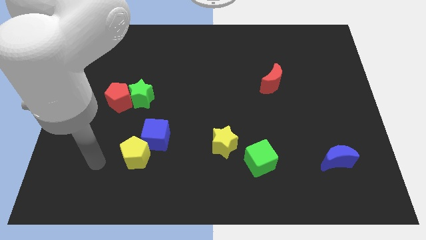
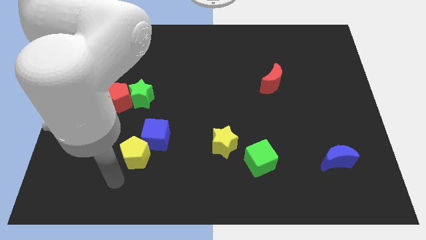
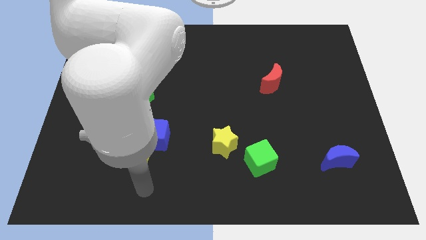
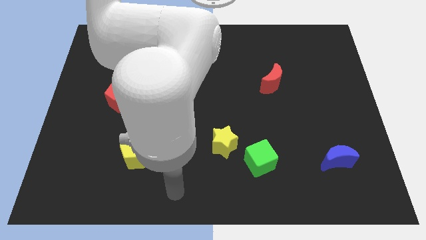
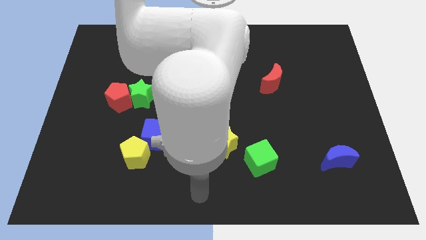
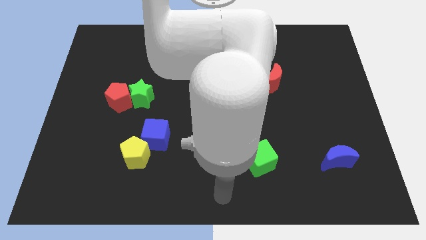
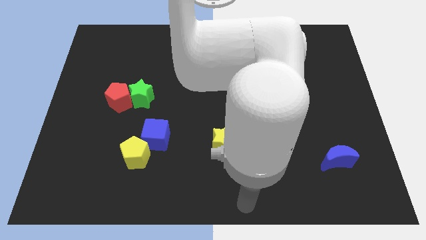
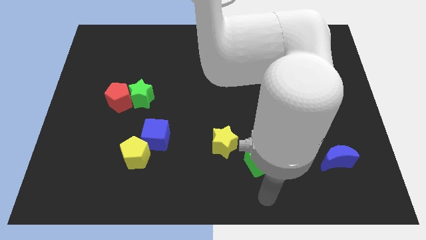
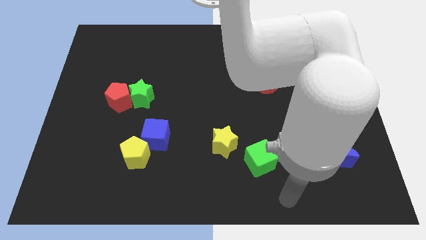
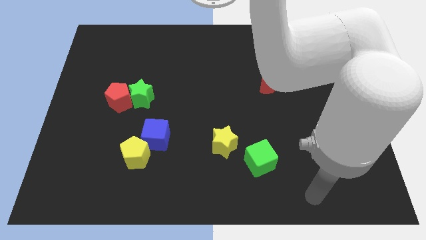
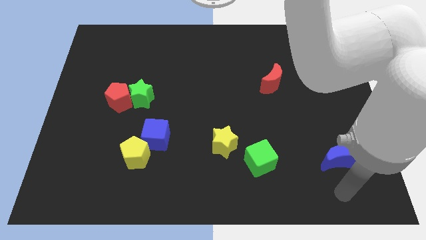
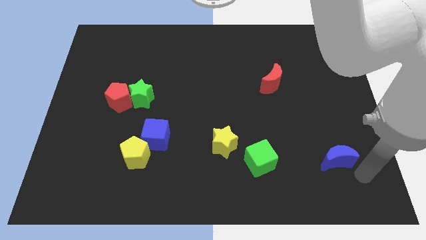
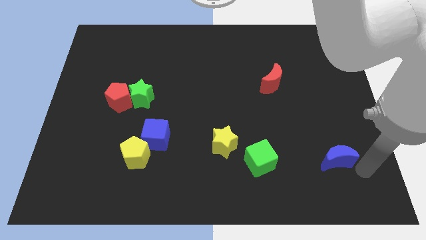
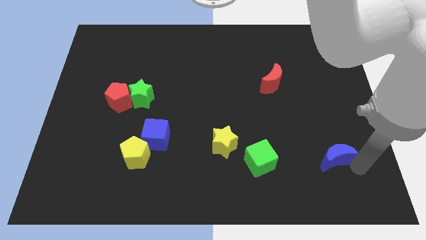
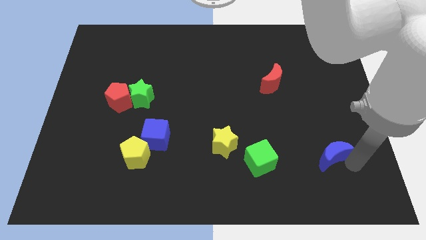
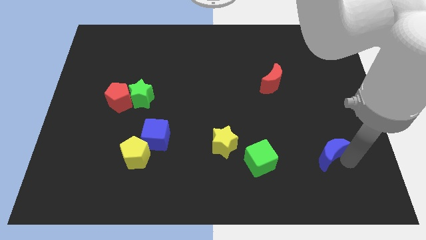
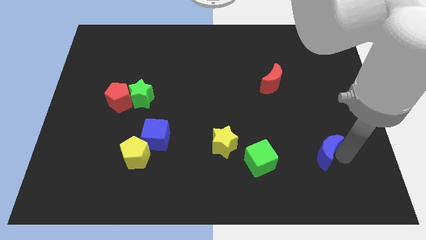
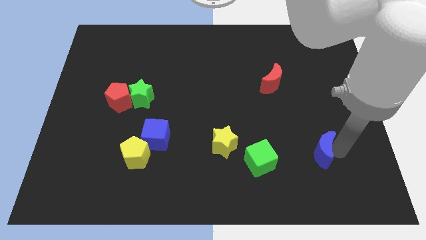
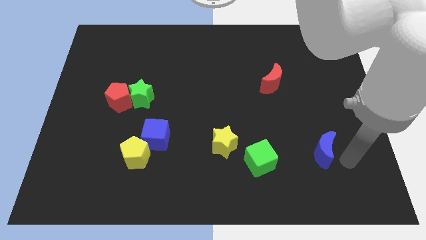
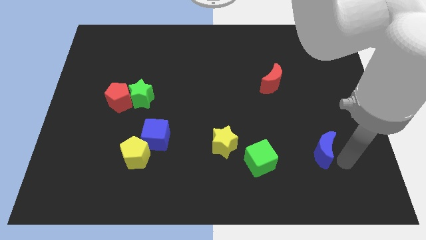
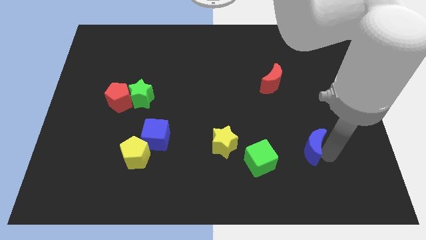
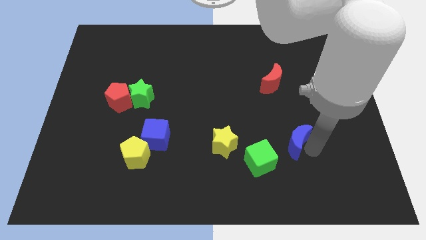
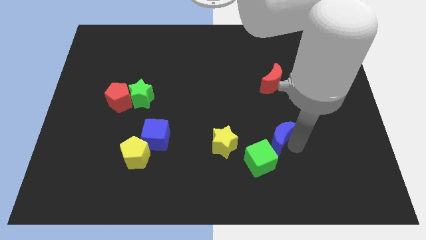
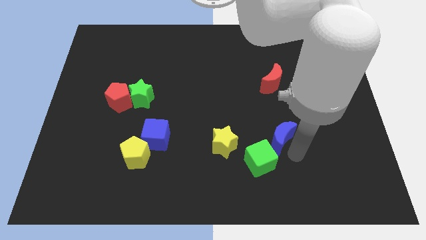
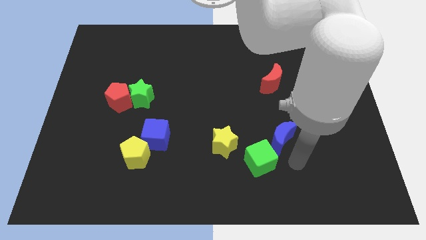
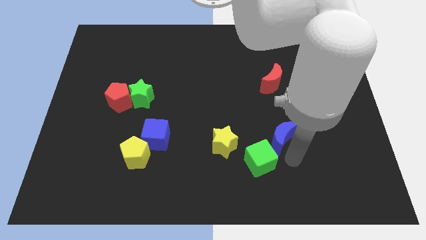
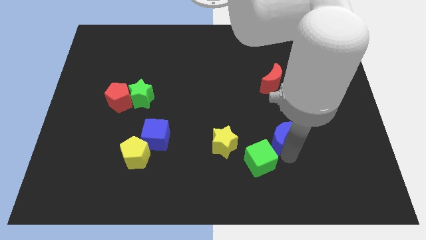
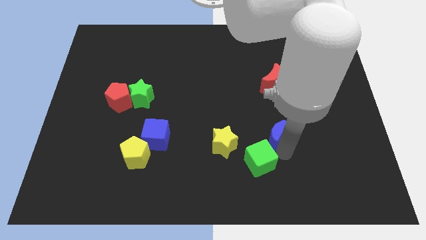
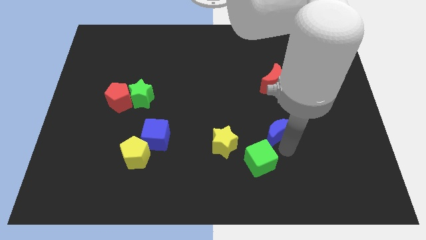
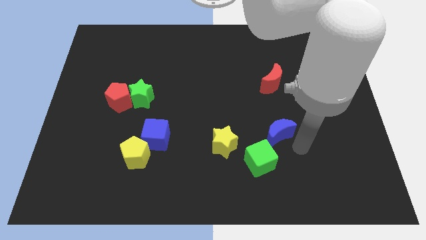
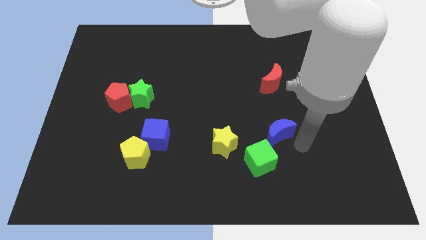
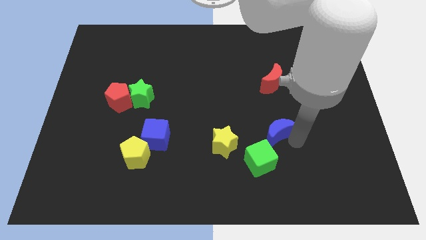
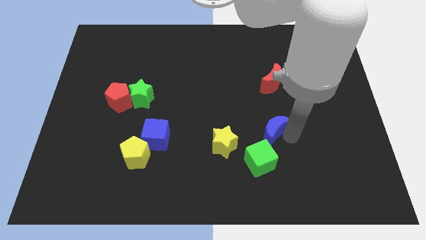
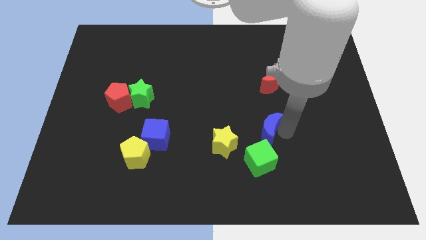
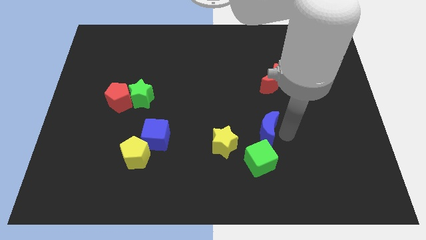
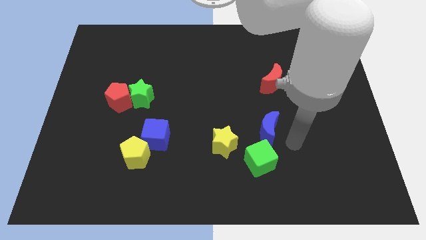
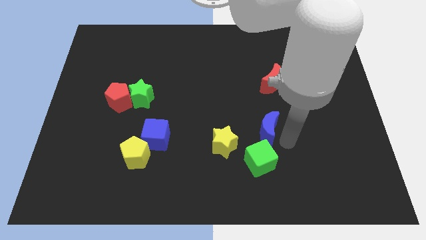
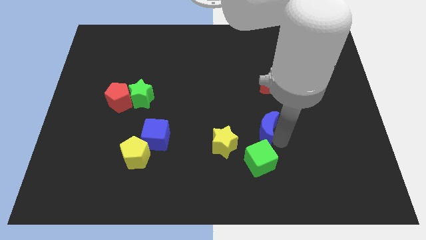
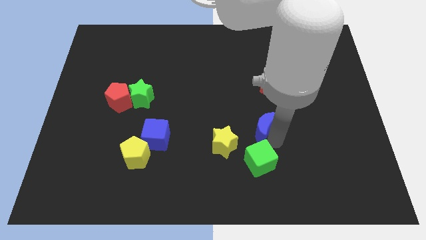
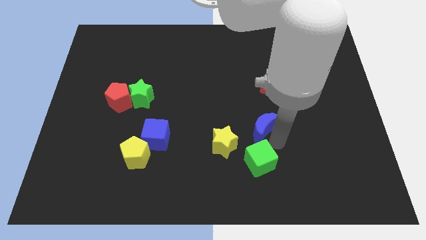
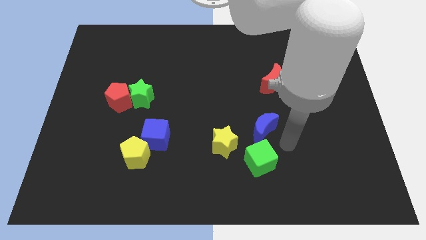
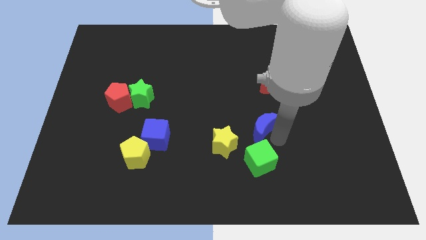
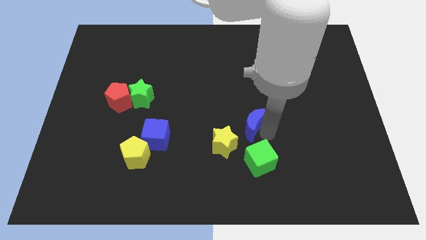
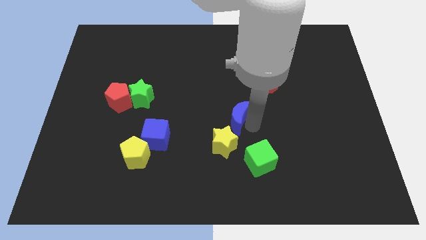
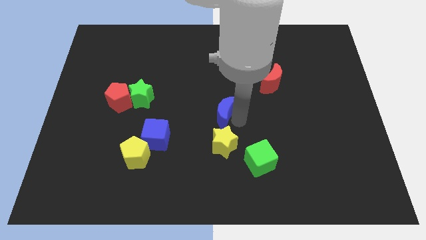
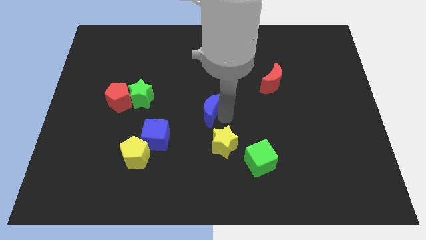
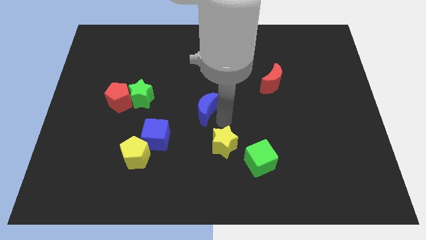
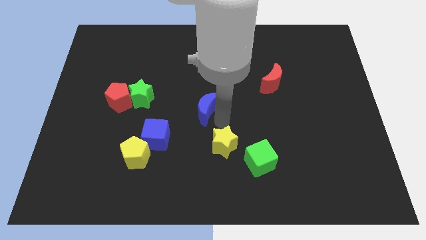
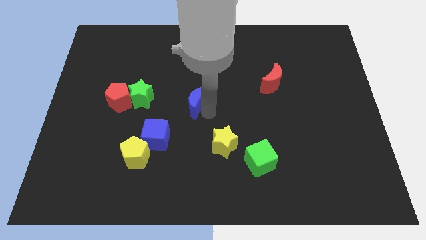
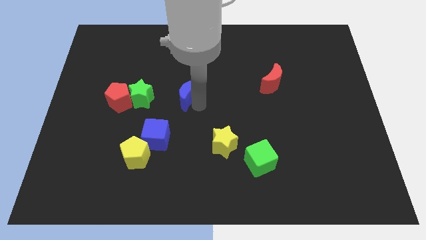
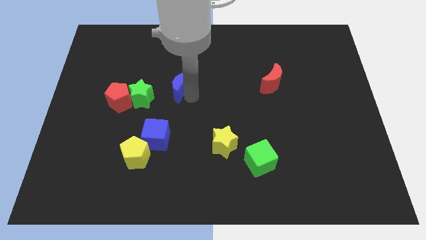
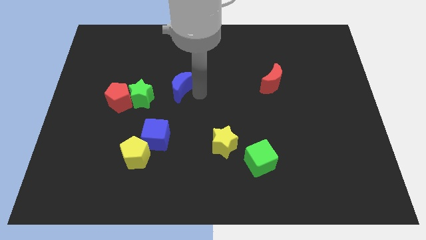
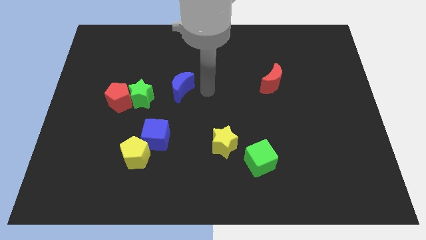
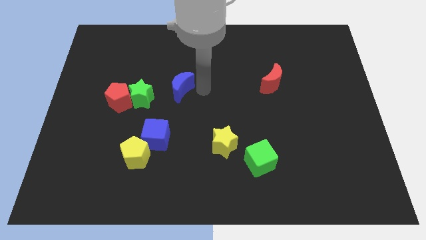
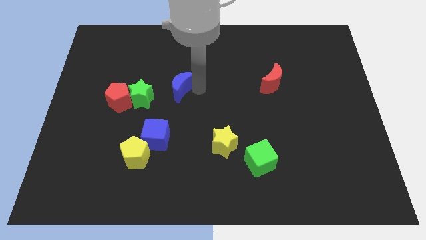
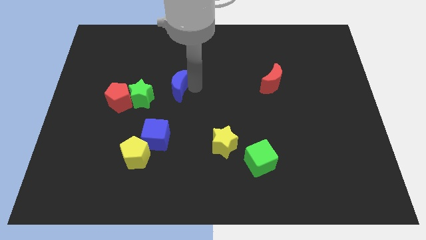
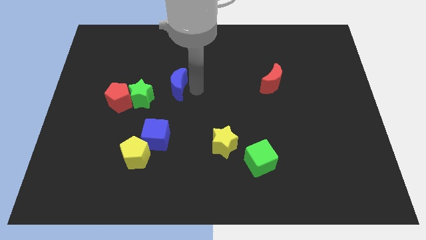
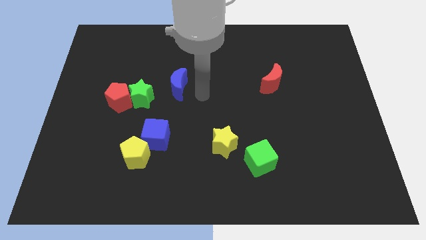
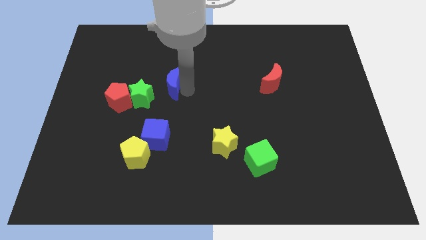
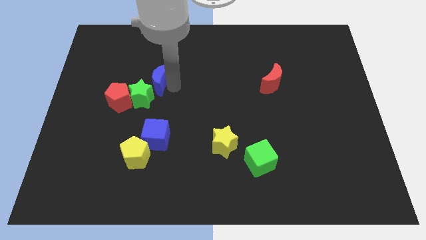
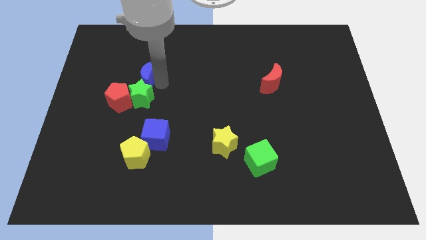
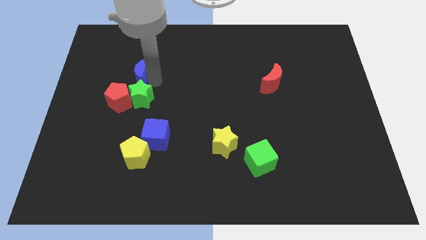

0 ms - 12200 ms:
slide the blue moon to the top side of the red pentagon

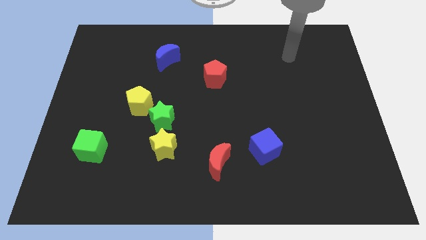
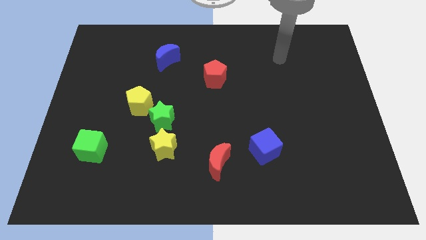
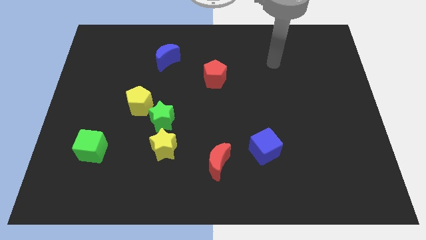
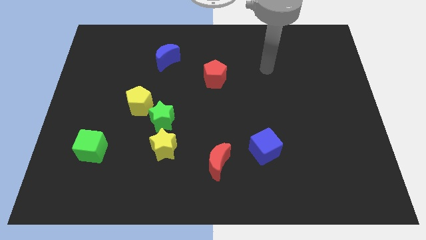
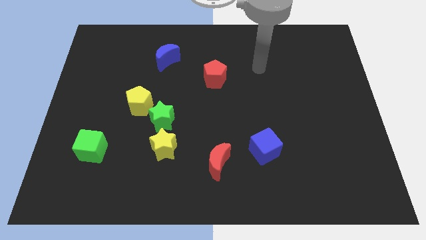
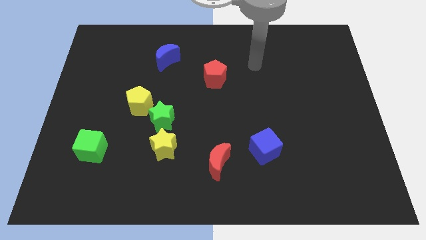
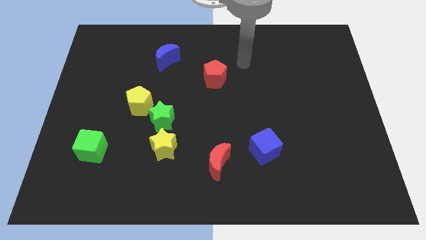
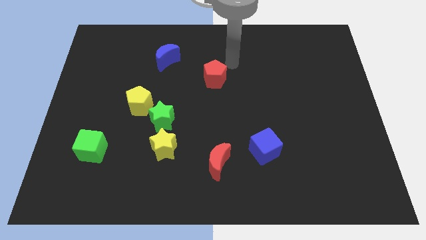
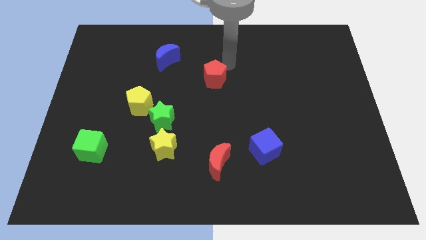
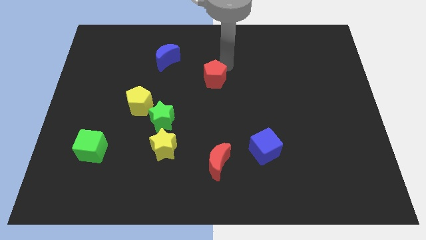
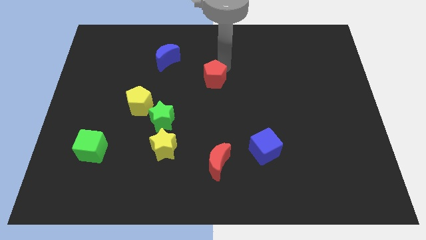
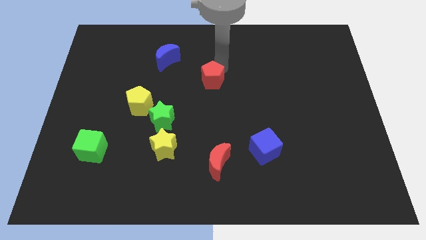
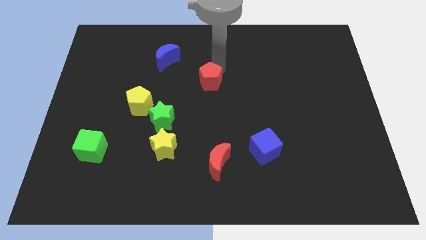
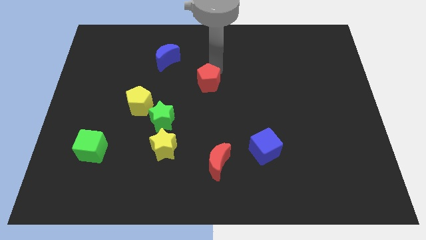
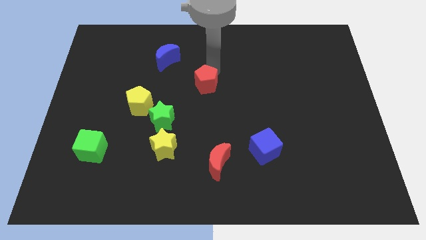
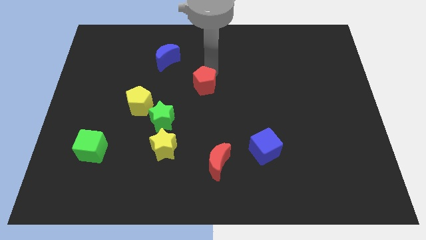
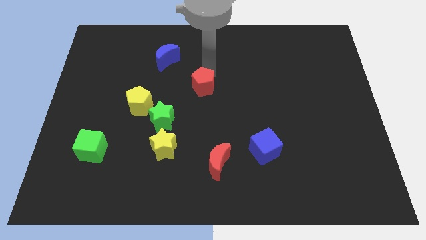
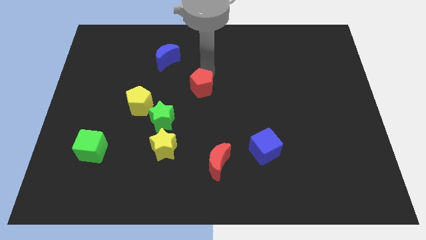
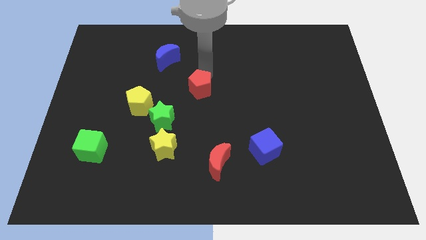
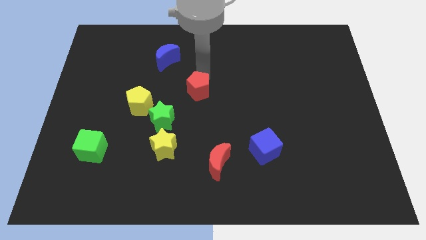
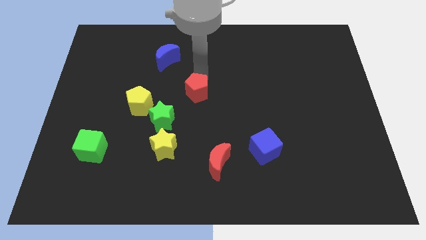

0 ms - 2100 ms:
push the red pentagon just right of the yellow pentagon
